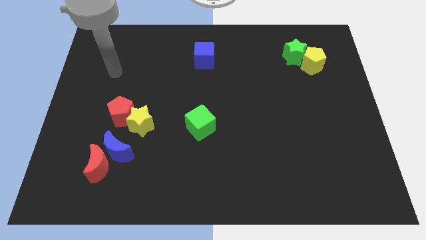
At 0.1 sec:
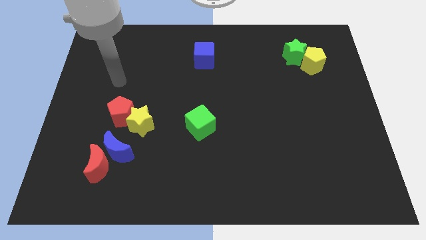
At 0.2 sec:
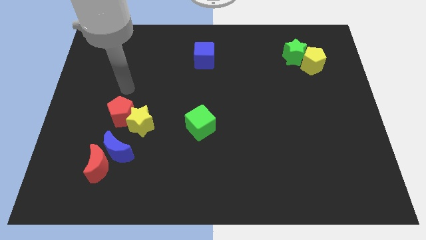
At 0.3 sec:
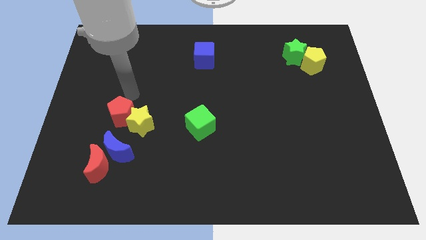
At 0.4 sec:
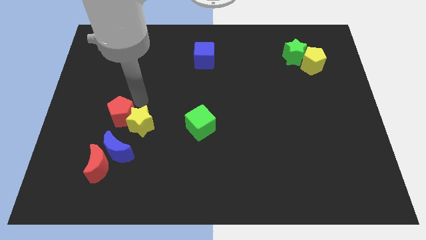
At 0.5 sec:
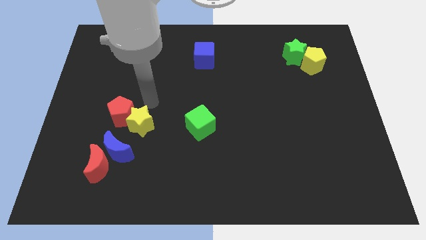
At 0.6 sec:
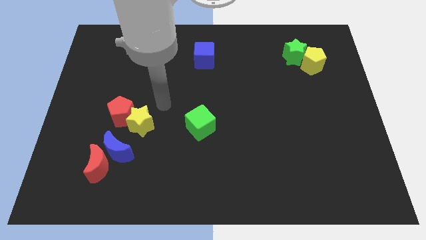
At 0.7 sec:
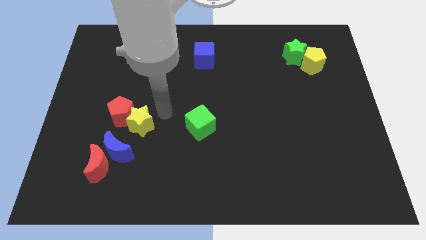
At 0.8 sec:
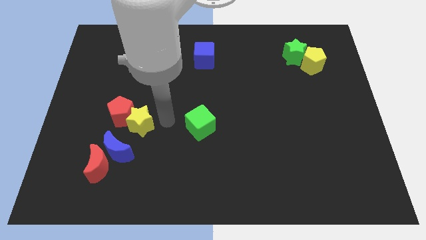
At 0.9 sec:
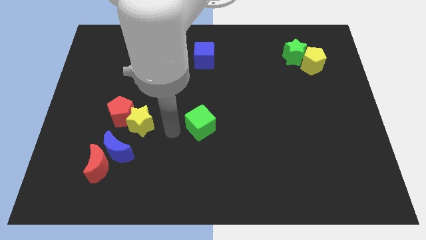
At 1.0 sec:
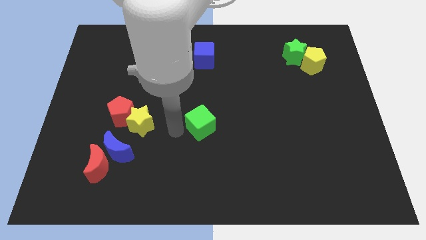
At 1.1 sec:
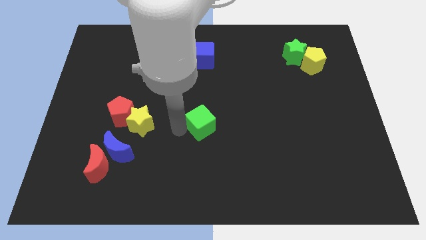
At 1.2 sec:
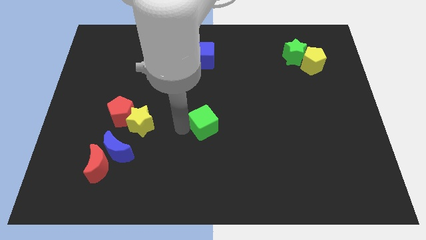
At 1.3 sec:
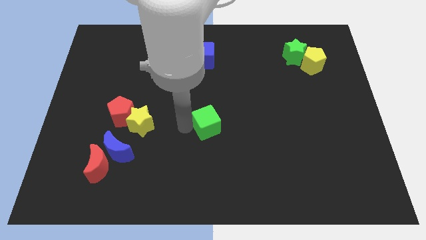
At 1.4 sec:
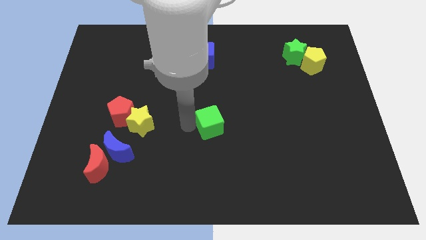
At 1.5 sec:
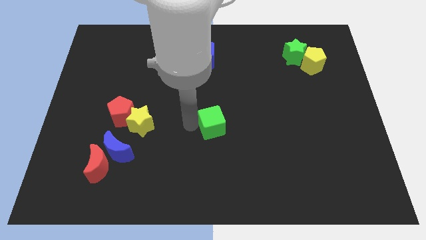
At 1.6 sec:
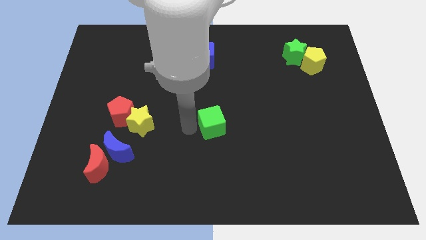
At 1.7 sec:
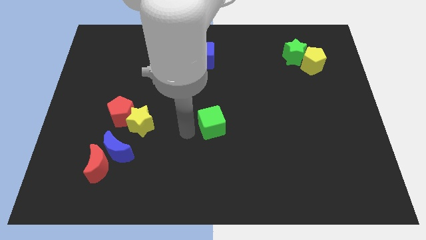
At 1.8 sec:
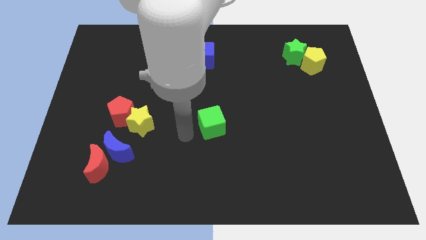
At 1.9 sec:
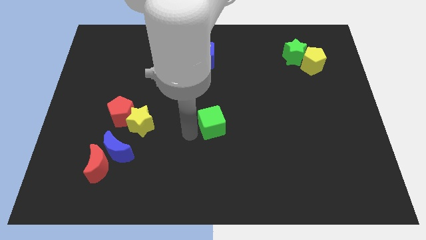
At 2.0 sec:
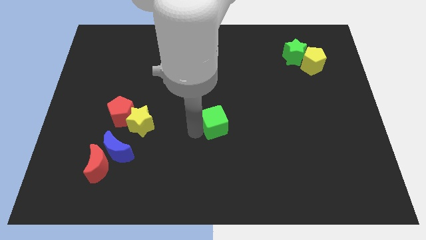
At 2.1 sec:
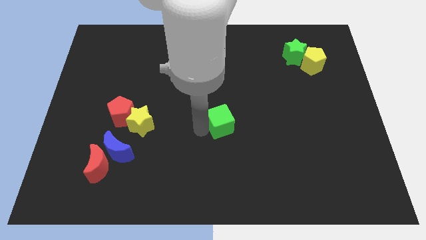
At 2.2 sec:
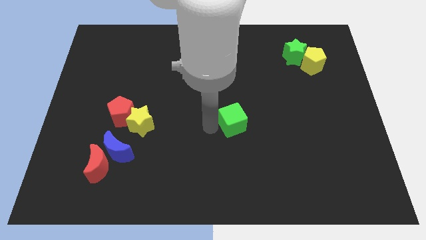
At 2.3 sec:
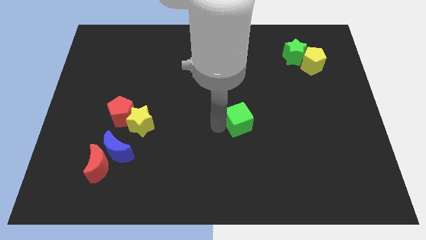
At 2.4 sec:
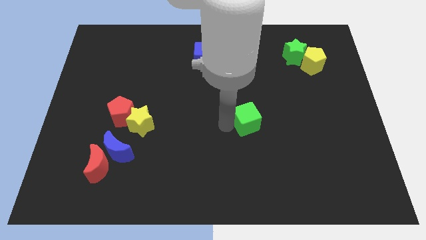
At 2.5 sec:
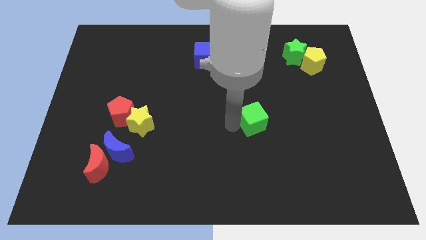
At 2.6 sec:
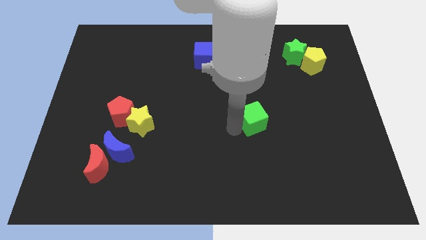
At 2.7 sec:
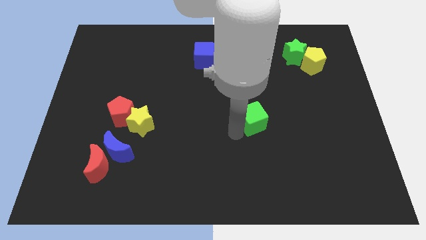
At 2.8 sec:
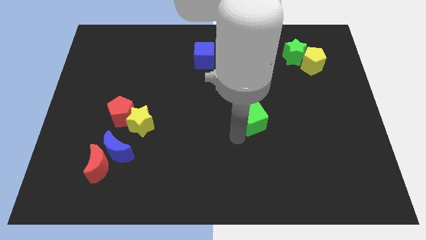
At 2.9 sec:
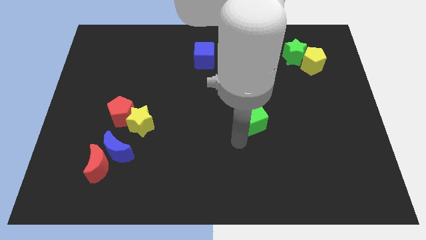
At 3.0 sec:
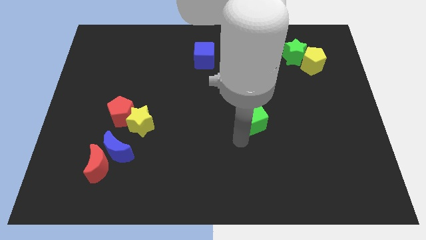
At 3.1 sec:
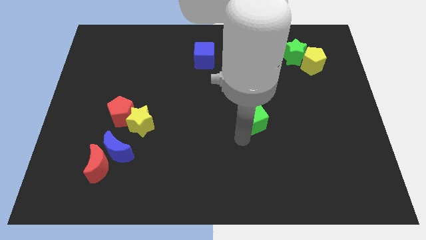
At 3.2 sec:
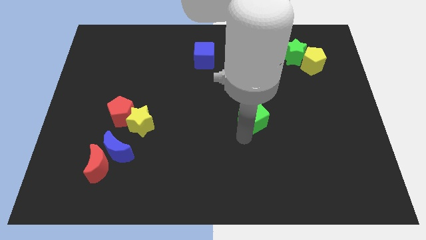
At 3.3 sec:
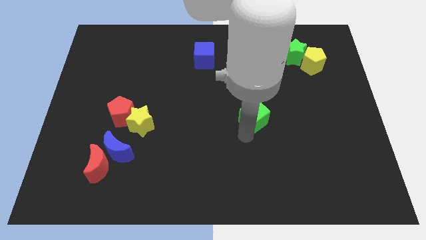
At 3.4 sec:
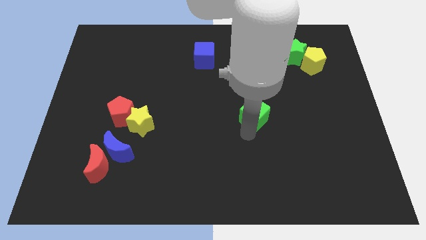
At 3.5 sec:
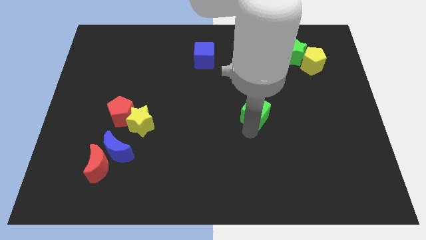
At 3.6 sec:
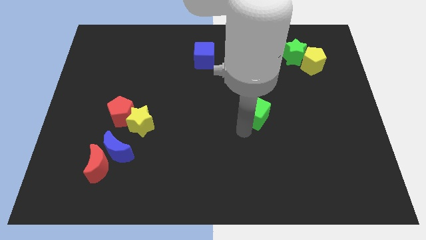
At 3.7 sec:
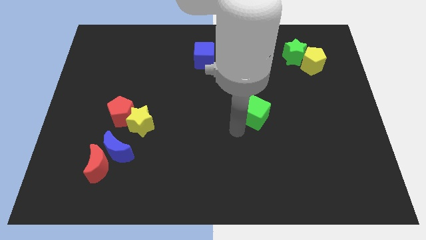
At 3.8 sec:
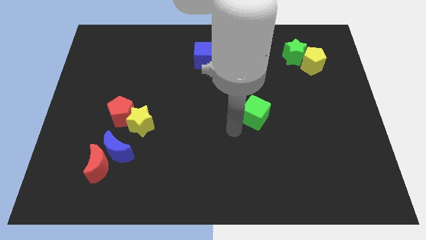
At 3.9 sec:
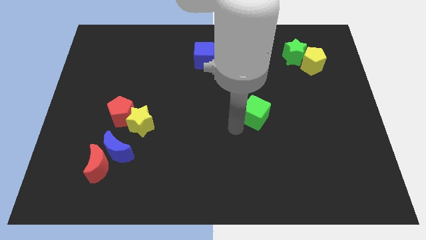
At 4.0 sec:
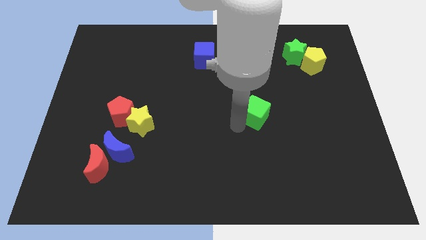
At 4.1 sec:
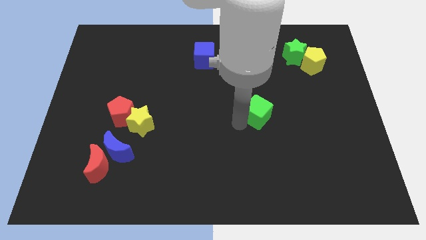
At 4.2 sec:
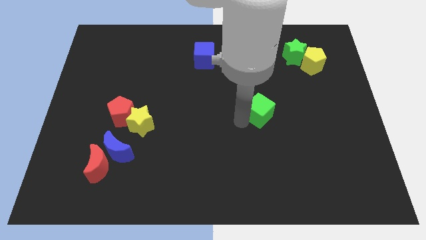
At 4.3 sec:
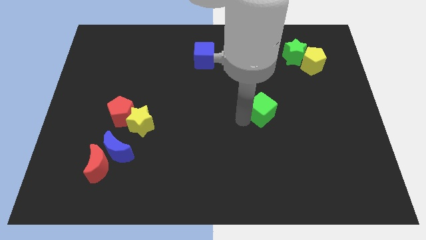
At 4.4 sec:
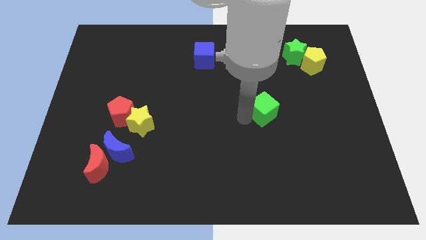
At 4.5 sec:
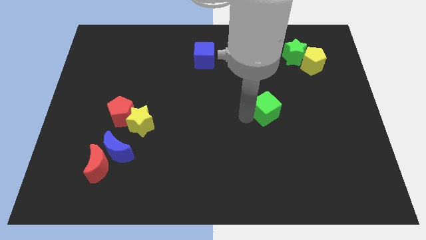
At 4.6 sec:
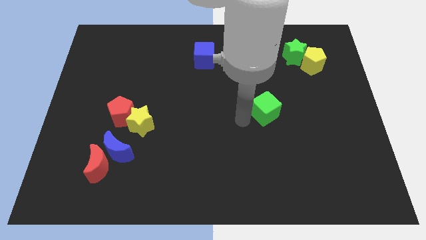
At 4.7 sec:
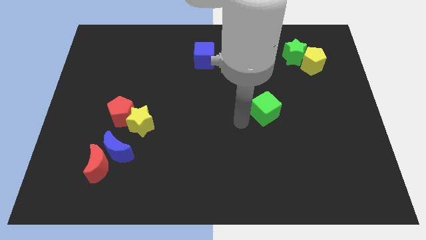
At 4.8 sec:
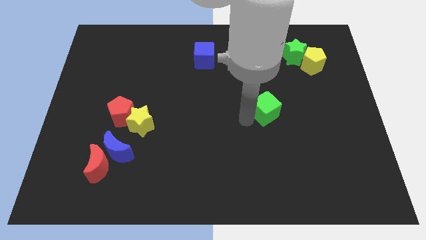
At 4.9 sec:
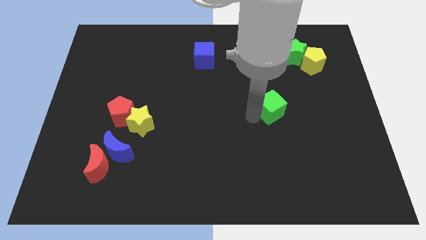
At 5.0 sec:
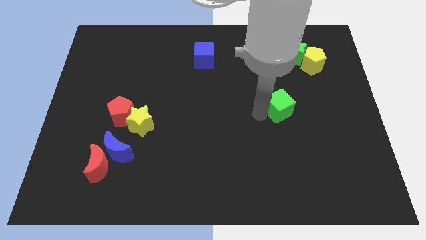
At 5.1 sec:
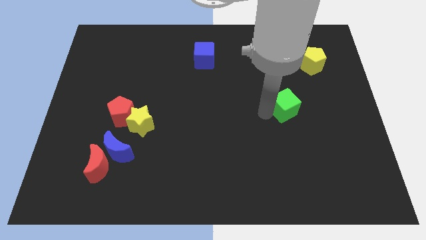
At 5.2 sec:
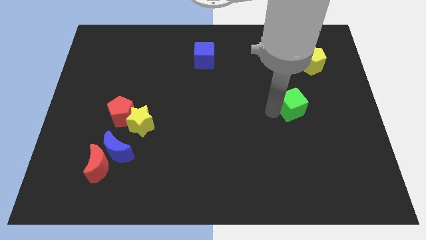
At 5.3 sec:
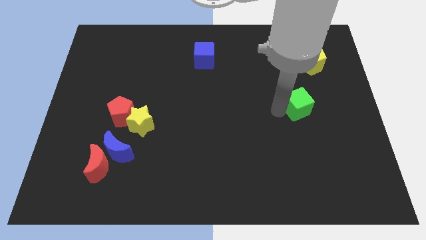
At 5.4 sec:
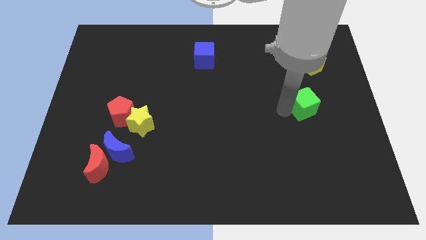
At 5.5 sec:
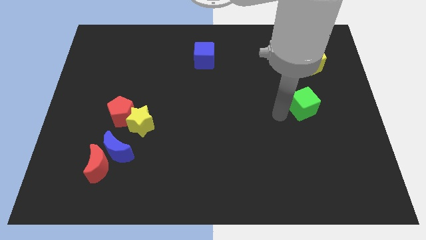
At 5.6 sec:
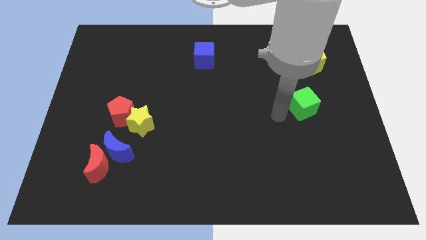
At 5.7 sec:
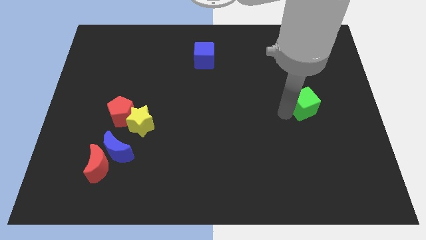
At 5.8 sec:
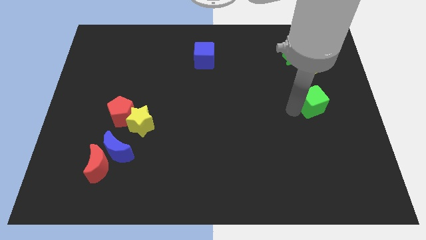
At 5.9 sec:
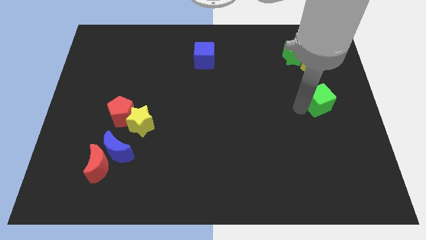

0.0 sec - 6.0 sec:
put the green cube to the center right
